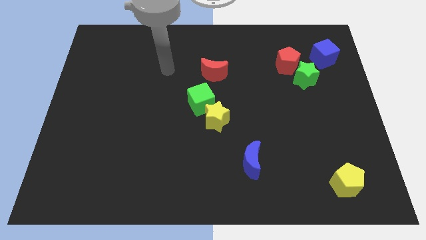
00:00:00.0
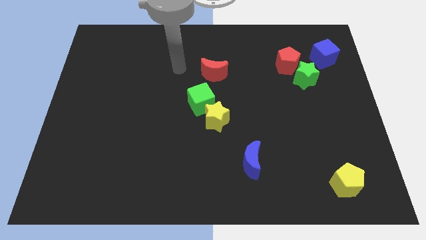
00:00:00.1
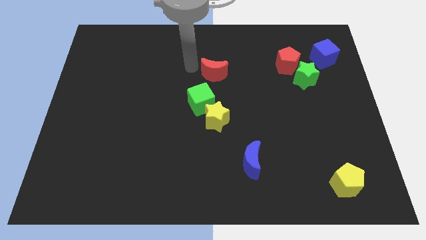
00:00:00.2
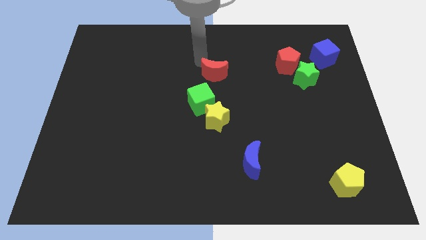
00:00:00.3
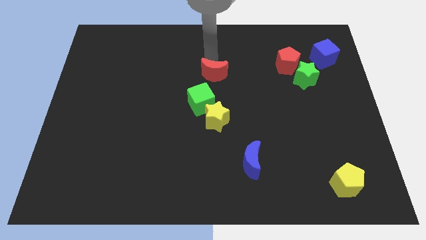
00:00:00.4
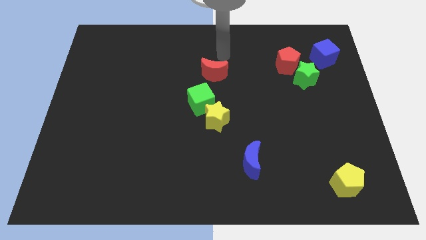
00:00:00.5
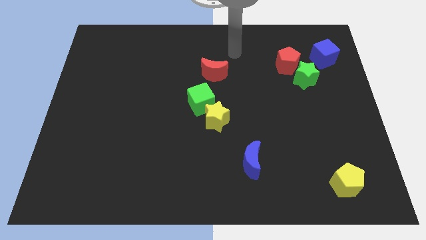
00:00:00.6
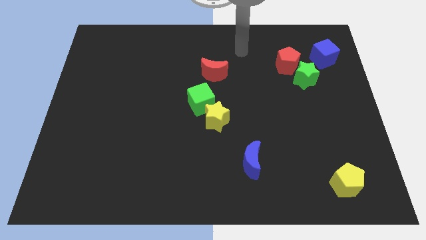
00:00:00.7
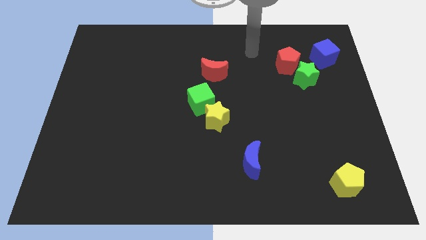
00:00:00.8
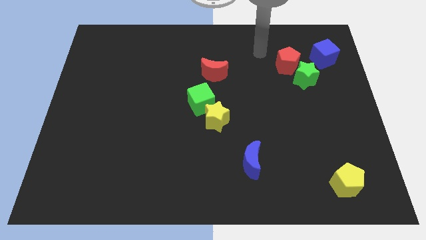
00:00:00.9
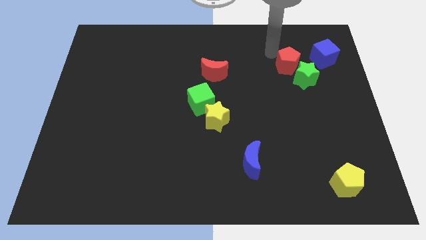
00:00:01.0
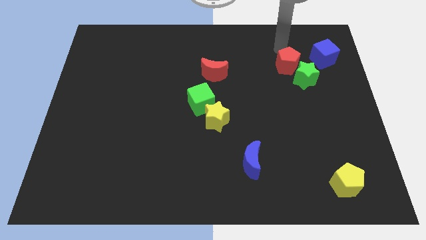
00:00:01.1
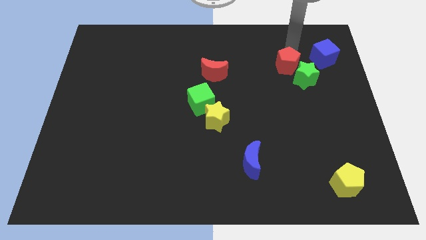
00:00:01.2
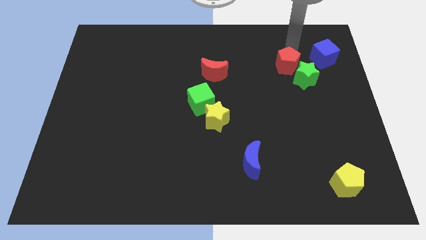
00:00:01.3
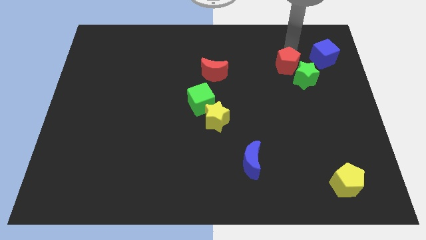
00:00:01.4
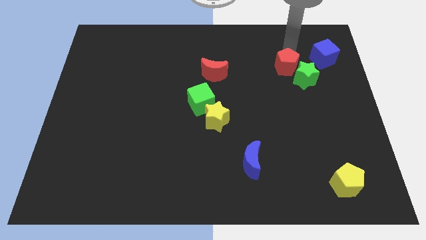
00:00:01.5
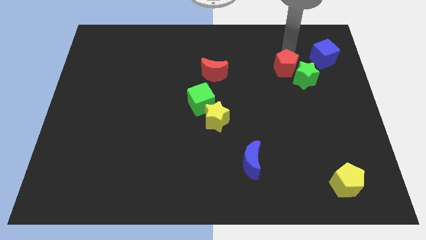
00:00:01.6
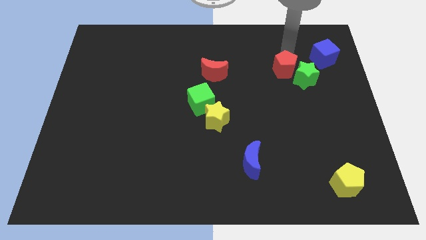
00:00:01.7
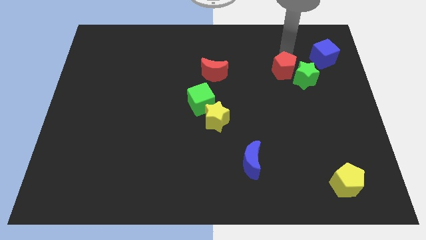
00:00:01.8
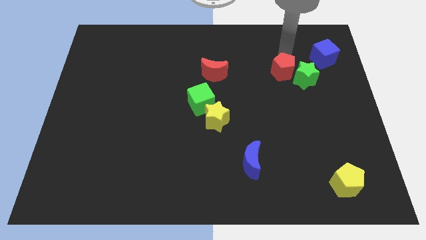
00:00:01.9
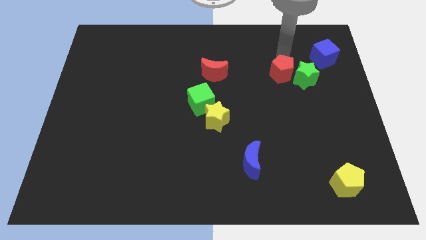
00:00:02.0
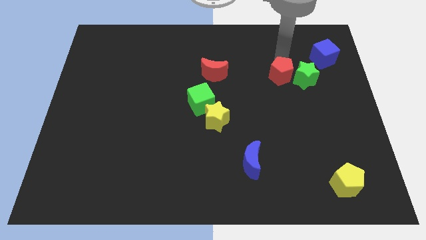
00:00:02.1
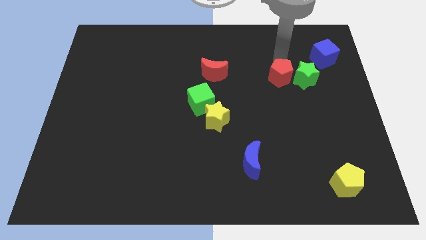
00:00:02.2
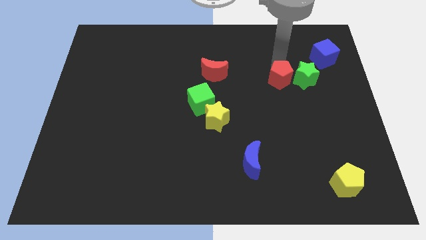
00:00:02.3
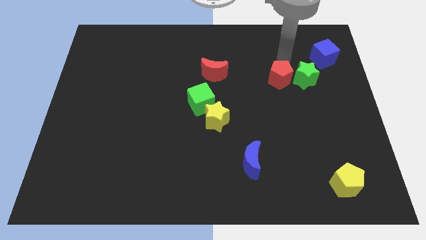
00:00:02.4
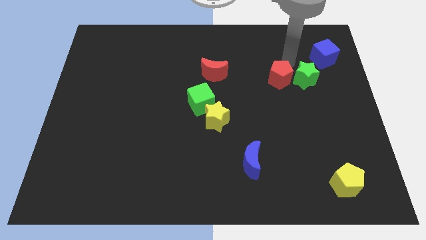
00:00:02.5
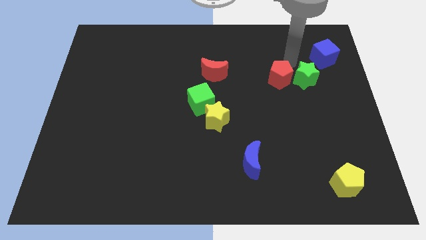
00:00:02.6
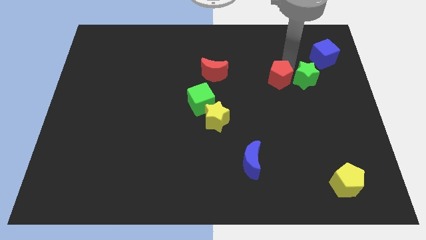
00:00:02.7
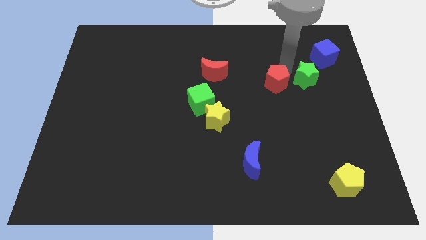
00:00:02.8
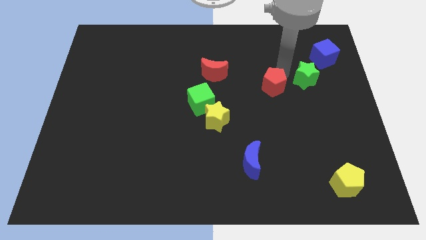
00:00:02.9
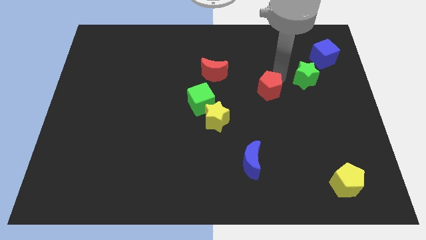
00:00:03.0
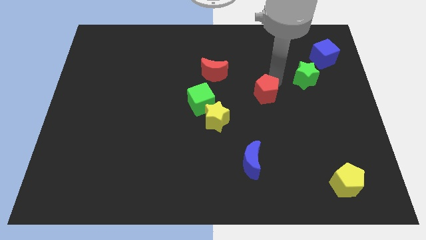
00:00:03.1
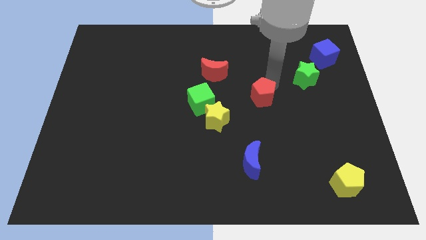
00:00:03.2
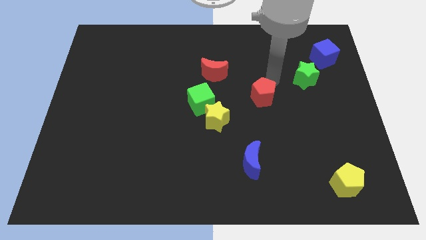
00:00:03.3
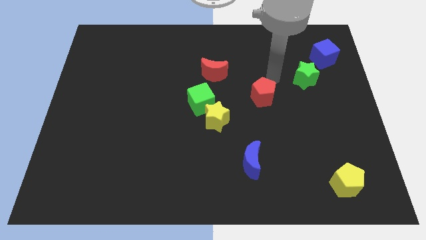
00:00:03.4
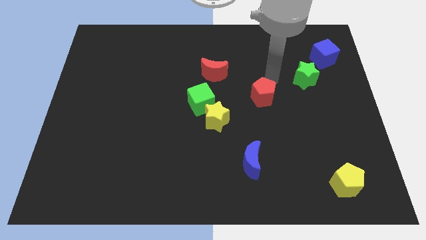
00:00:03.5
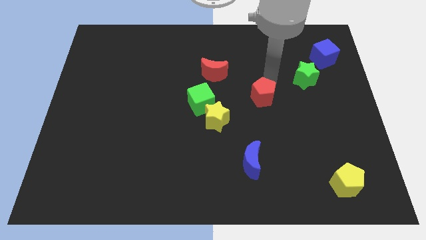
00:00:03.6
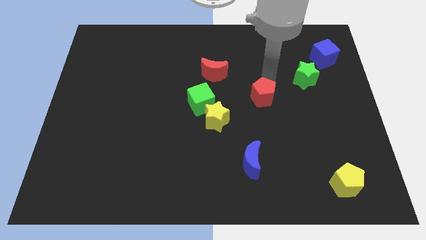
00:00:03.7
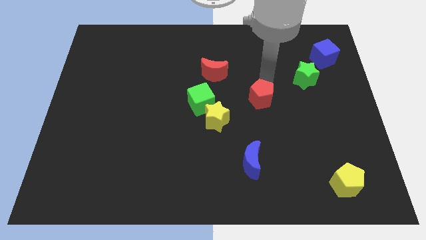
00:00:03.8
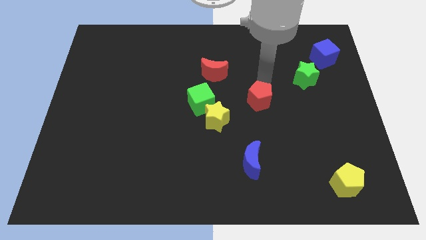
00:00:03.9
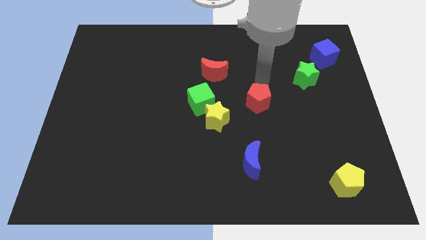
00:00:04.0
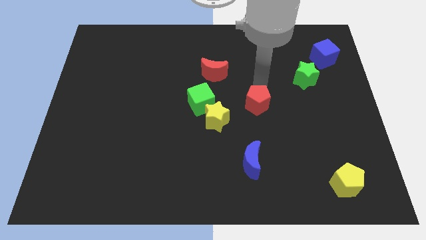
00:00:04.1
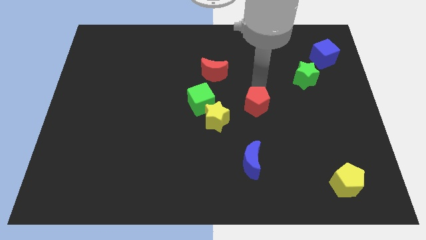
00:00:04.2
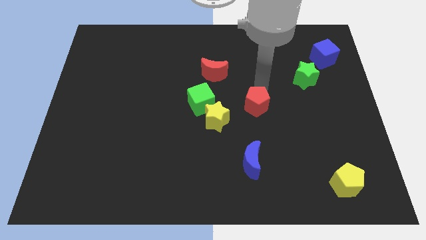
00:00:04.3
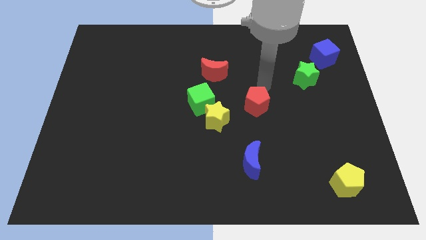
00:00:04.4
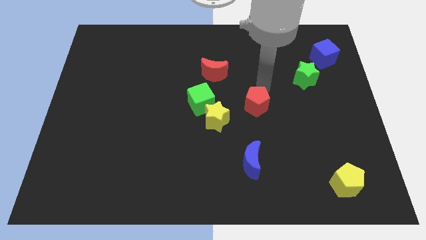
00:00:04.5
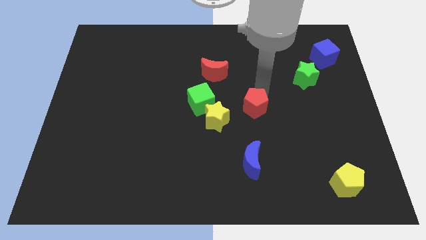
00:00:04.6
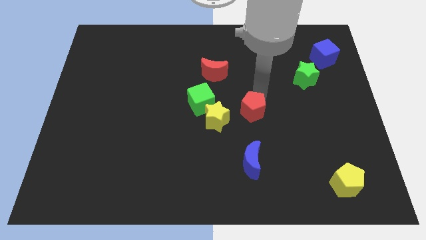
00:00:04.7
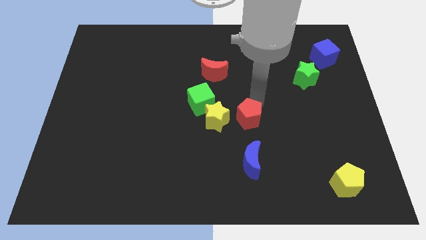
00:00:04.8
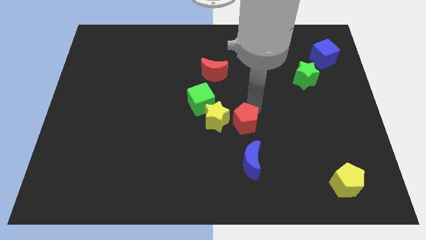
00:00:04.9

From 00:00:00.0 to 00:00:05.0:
slide the red pentagon down and then to the left

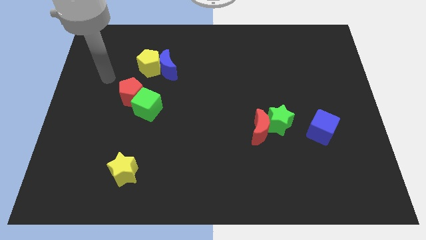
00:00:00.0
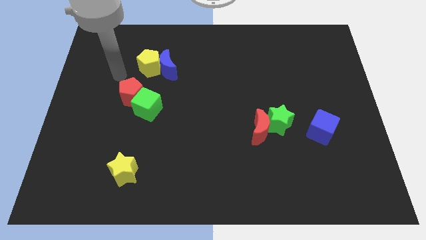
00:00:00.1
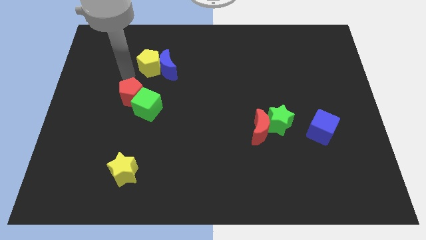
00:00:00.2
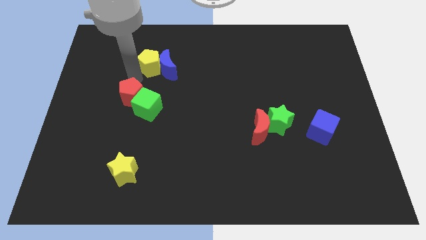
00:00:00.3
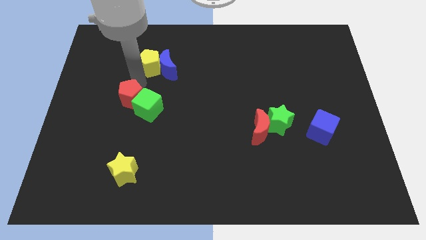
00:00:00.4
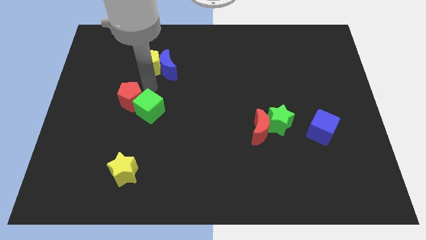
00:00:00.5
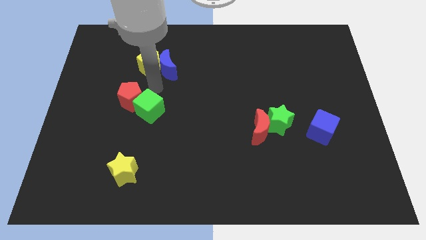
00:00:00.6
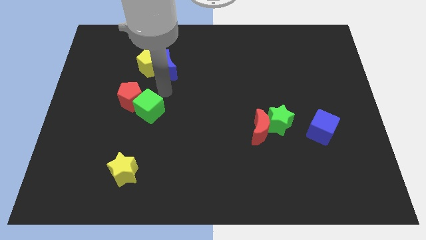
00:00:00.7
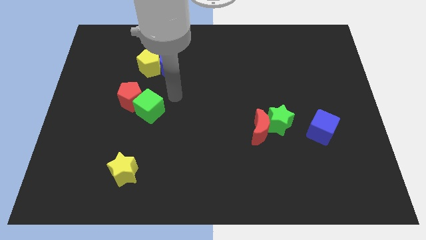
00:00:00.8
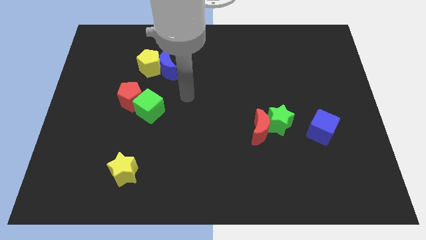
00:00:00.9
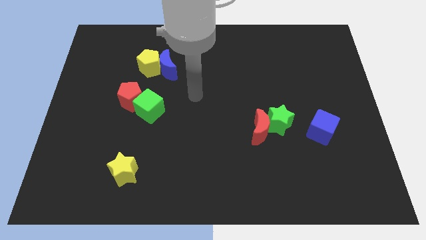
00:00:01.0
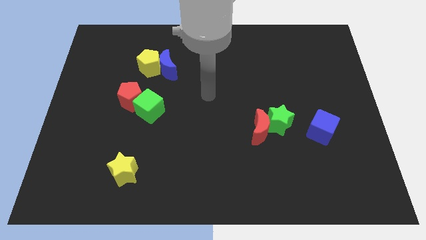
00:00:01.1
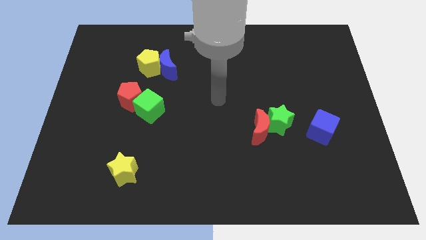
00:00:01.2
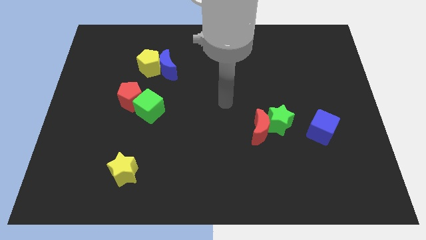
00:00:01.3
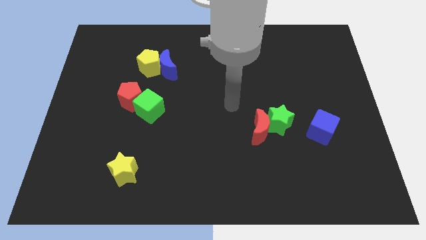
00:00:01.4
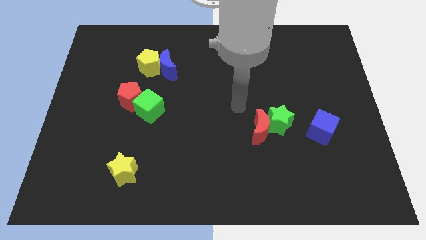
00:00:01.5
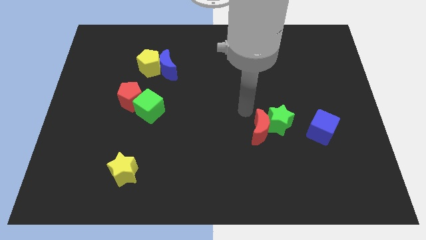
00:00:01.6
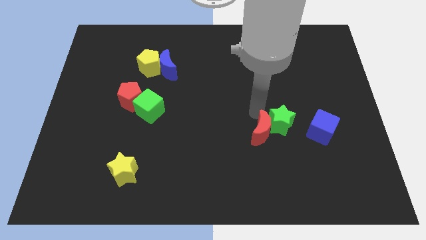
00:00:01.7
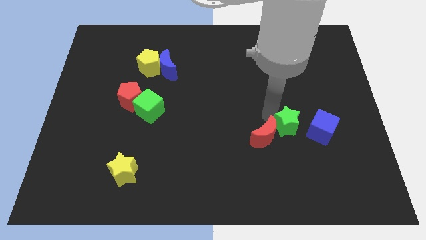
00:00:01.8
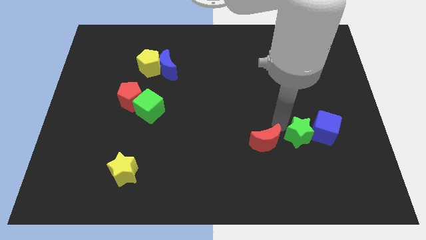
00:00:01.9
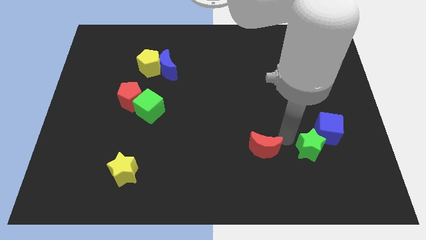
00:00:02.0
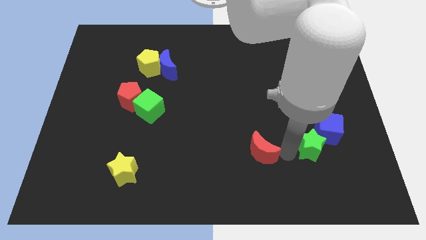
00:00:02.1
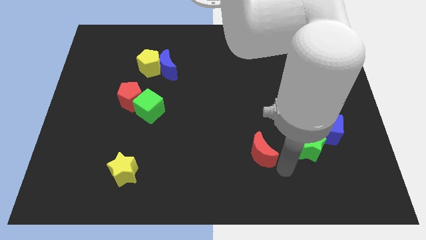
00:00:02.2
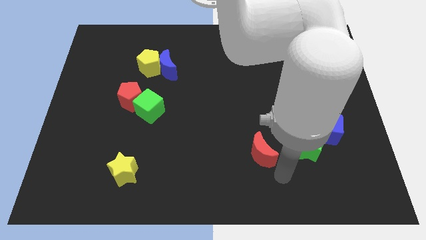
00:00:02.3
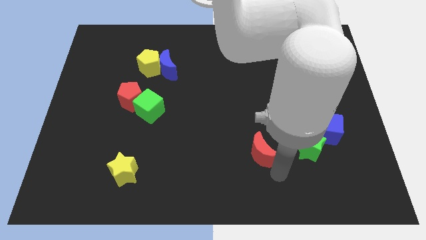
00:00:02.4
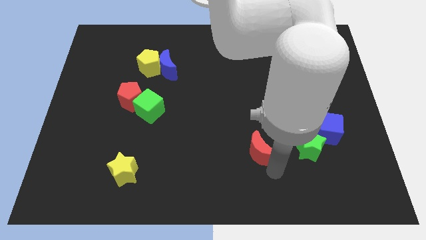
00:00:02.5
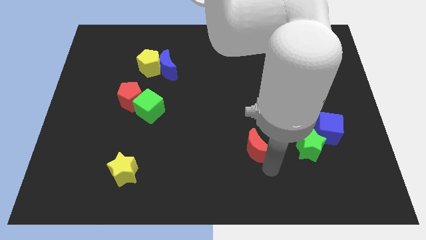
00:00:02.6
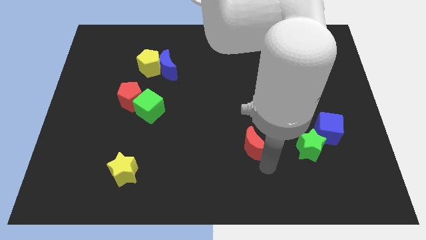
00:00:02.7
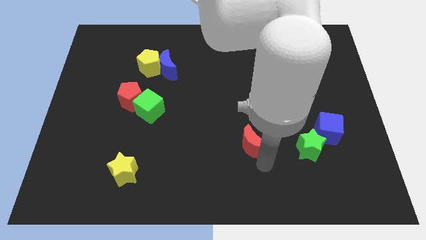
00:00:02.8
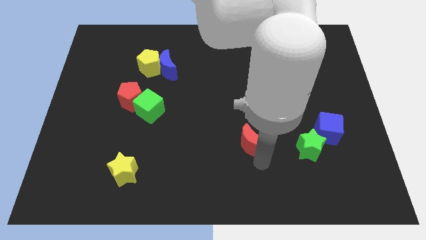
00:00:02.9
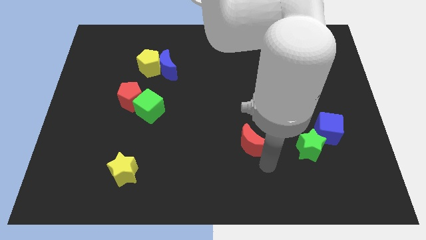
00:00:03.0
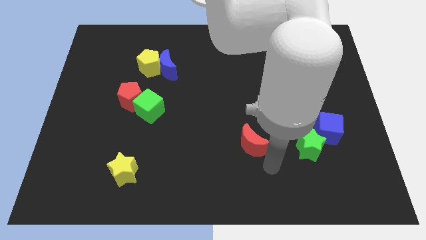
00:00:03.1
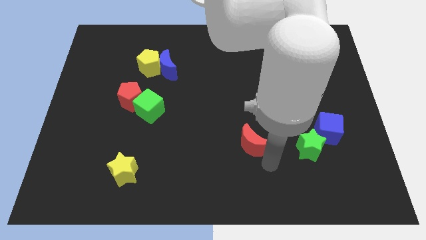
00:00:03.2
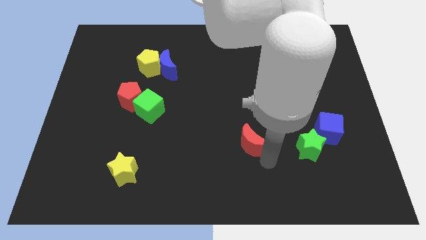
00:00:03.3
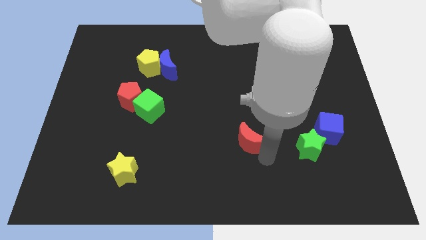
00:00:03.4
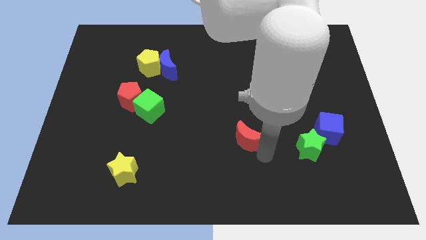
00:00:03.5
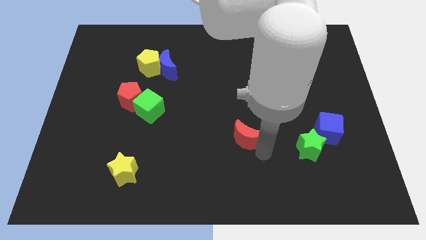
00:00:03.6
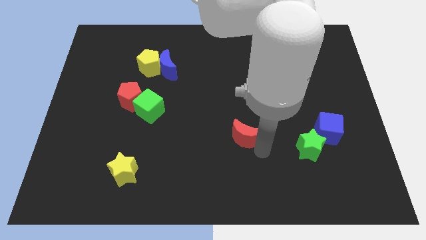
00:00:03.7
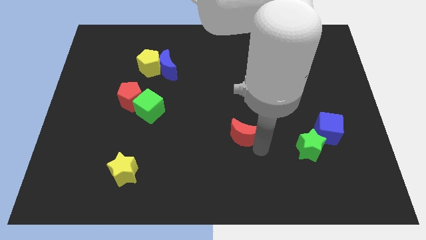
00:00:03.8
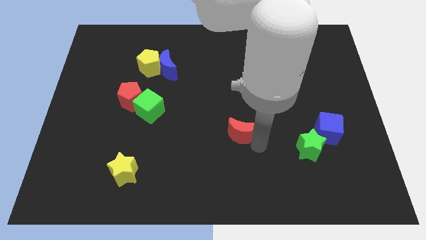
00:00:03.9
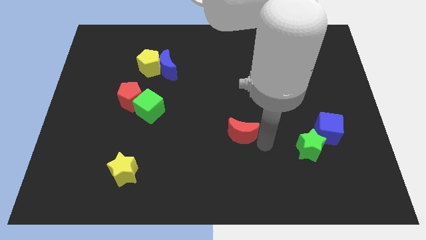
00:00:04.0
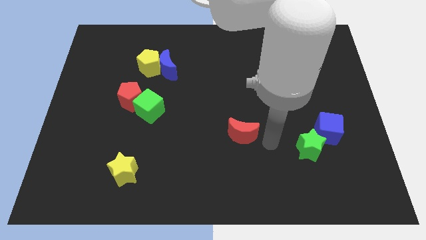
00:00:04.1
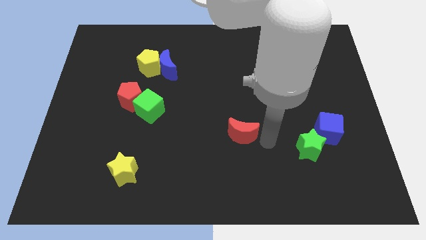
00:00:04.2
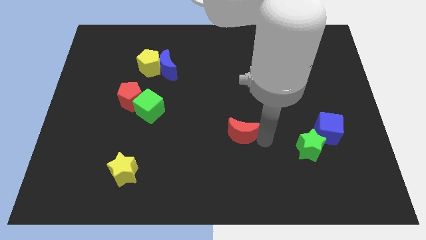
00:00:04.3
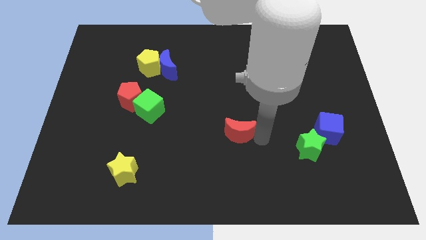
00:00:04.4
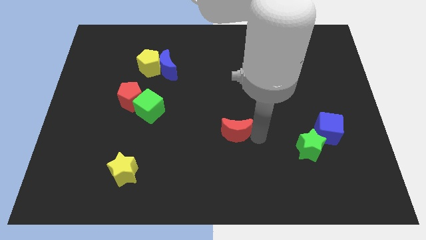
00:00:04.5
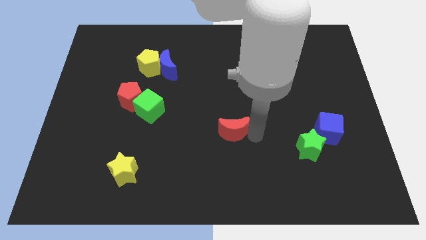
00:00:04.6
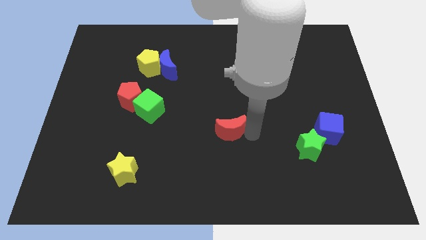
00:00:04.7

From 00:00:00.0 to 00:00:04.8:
slightly push the red moon left
